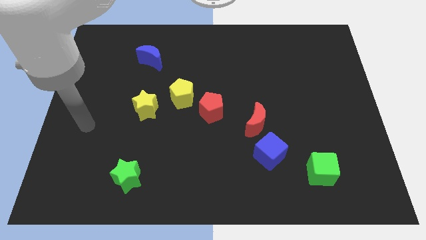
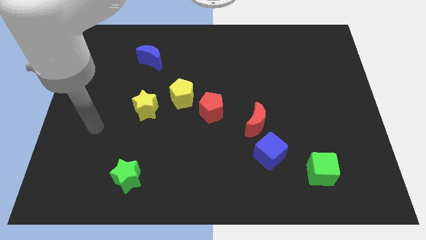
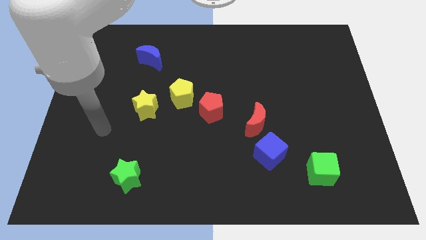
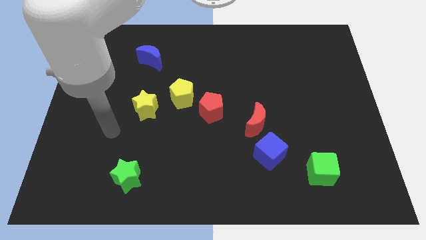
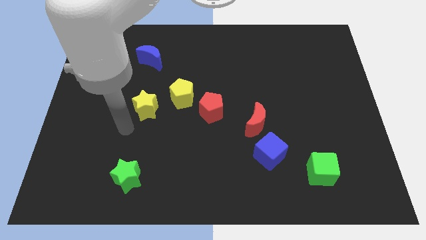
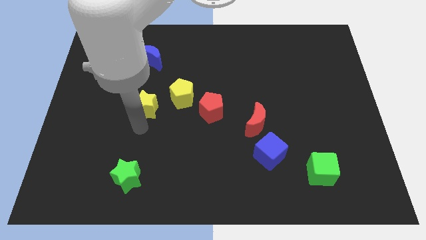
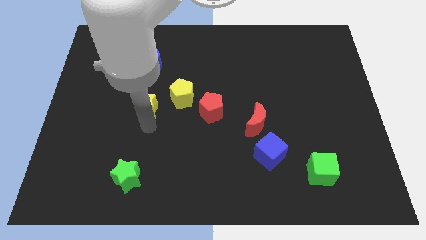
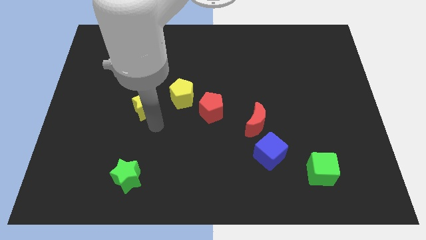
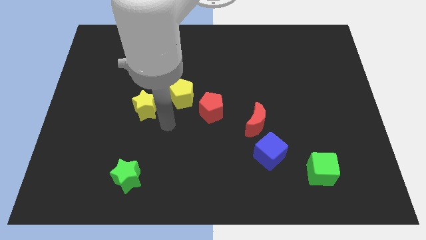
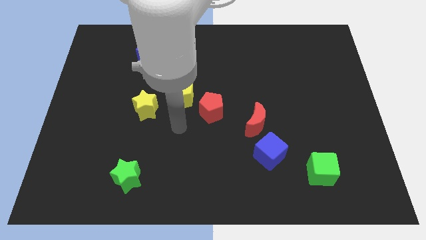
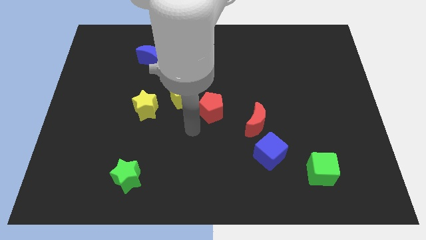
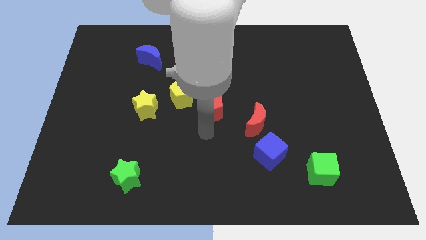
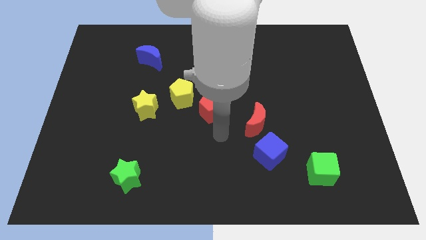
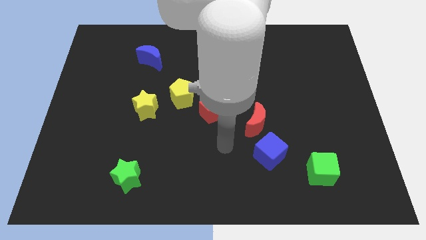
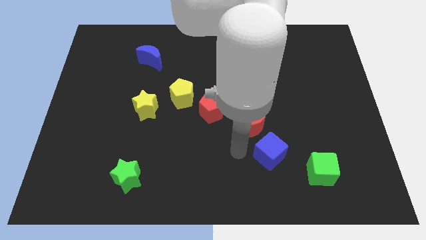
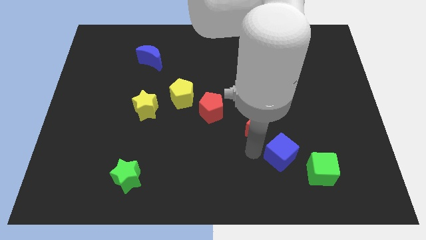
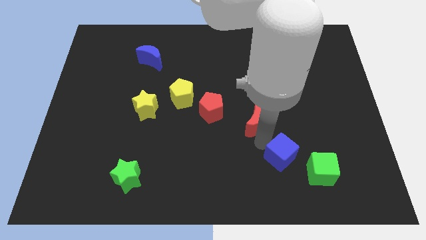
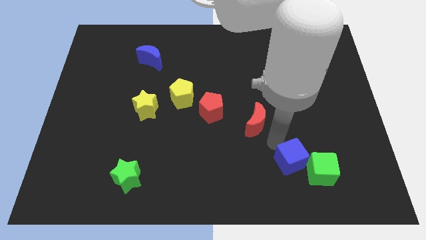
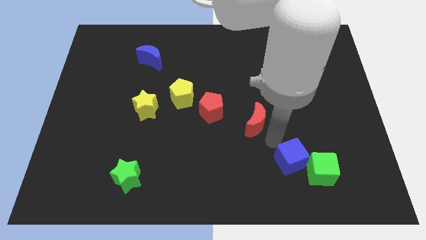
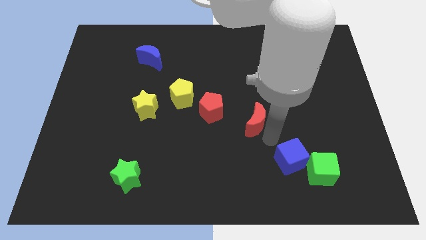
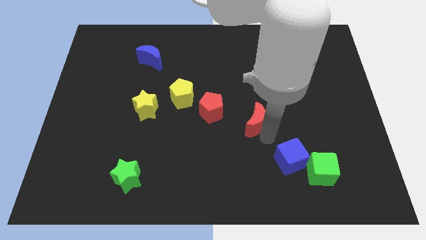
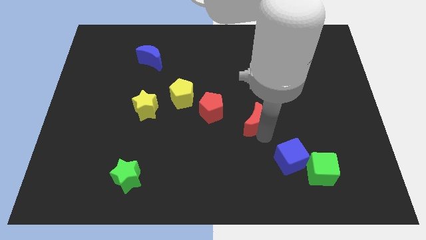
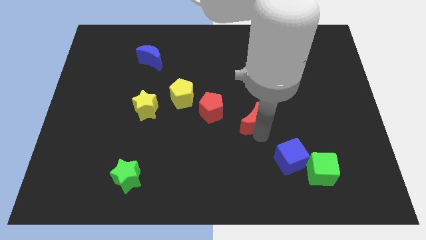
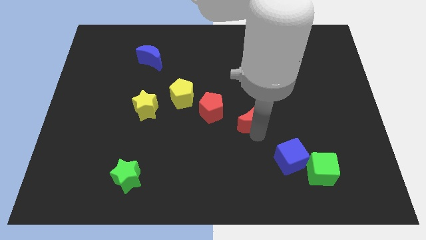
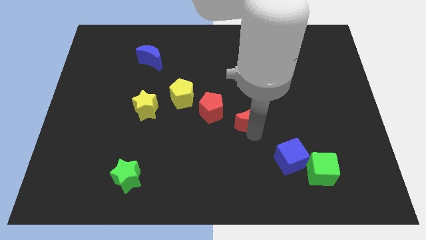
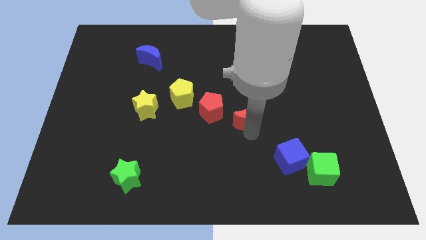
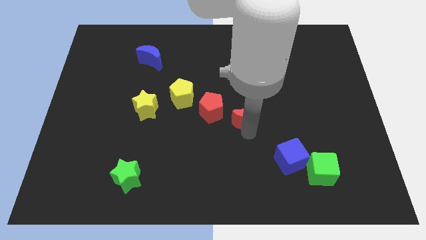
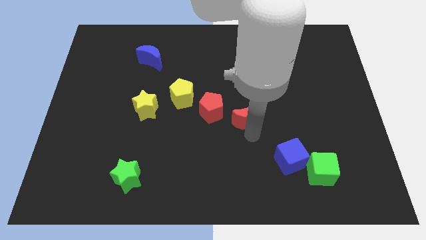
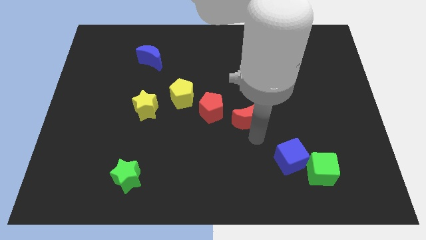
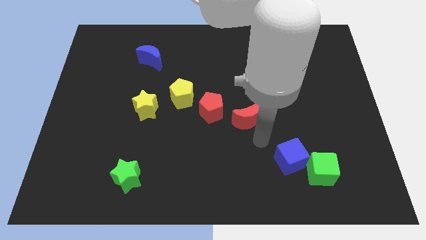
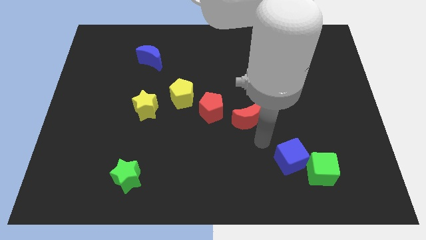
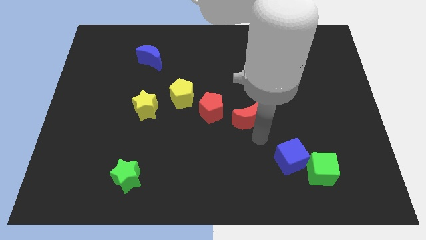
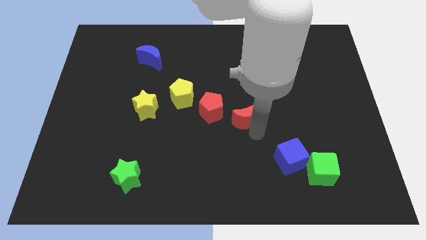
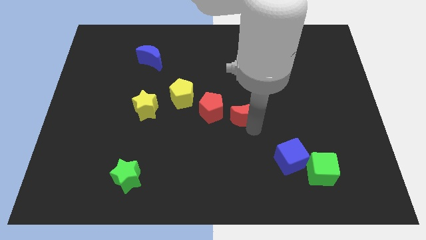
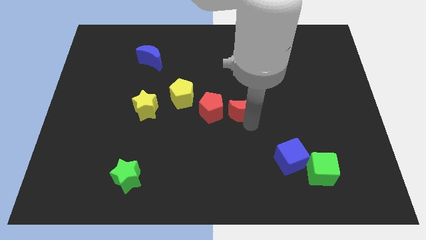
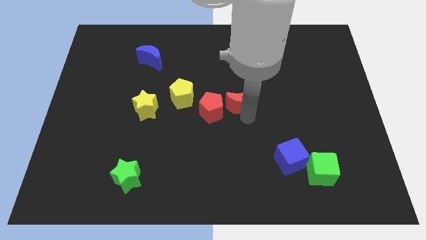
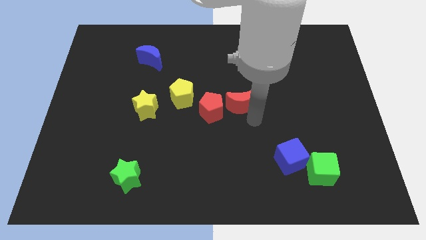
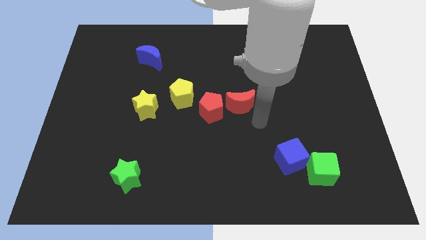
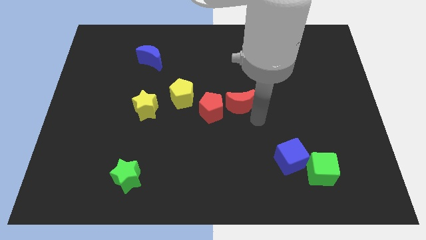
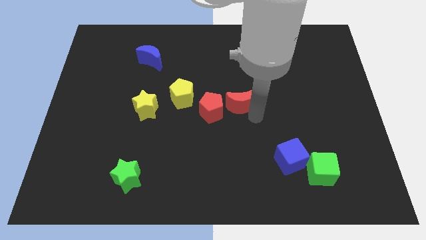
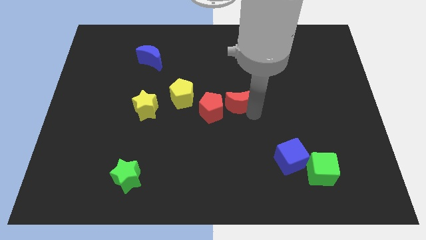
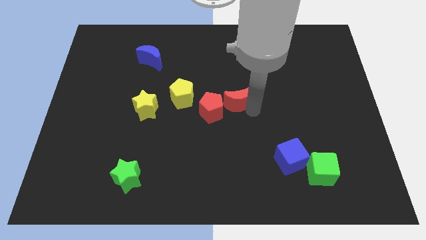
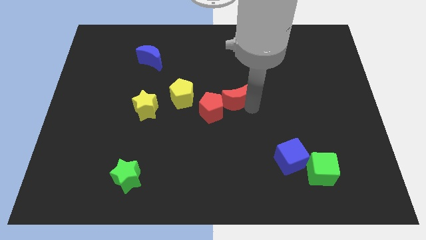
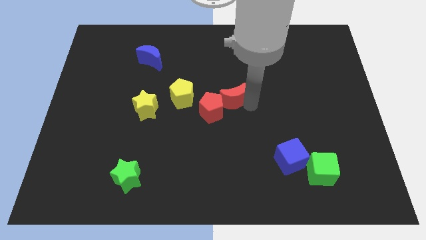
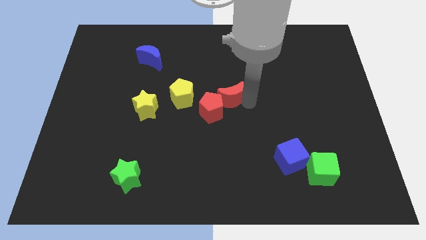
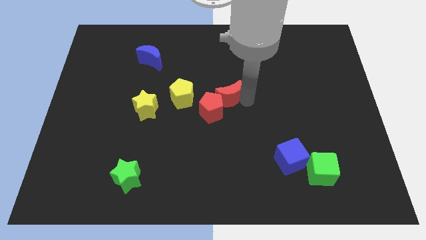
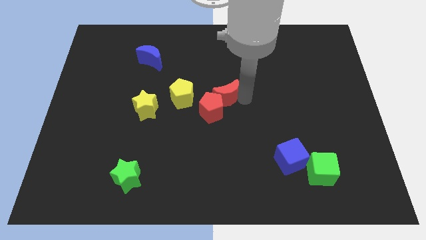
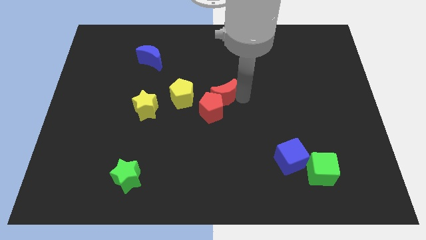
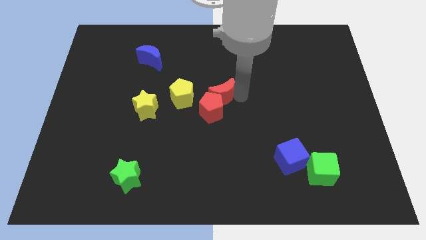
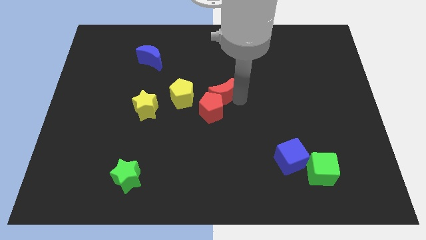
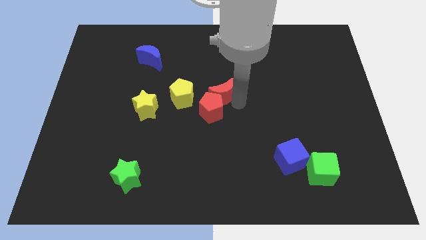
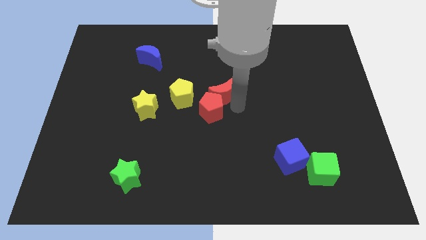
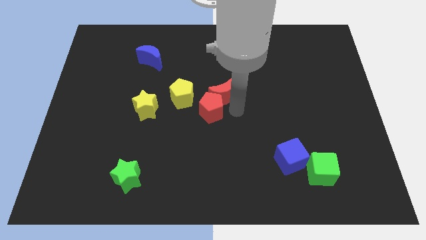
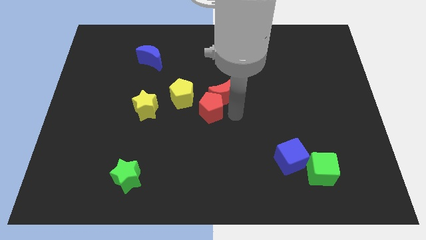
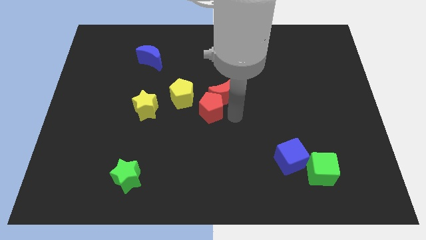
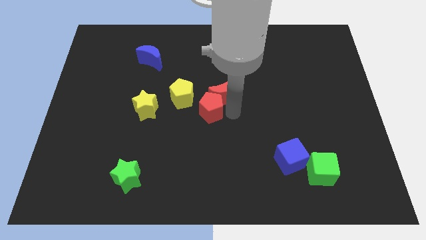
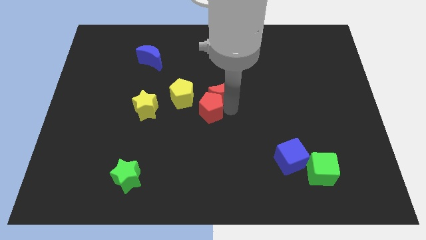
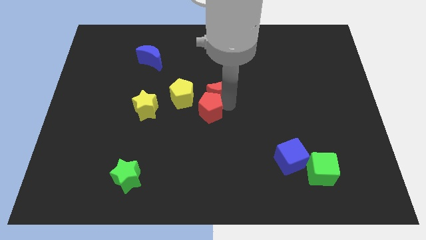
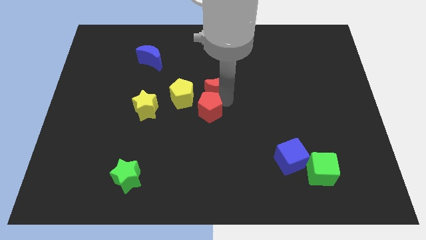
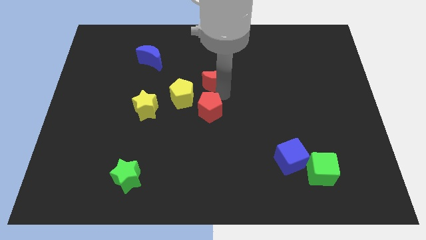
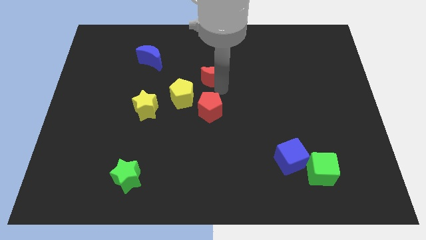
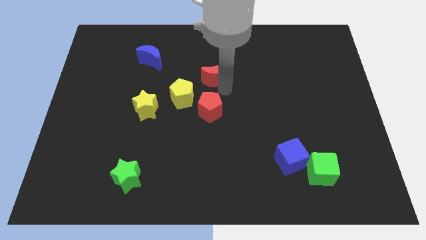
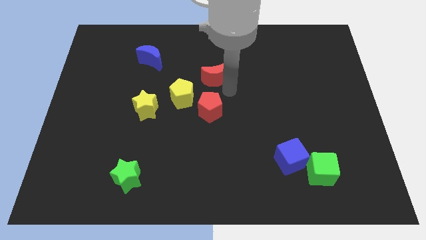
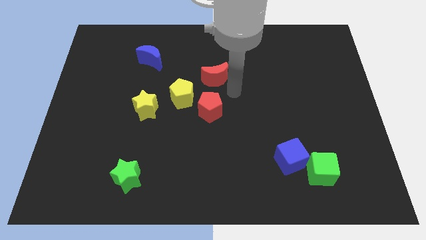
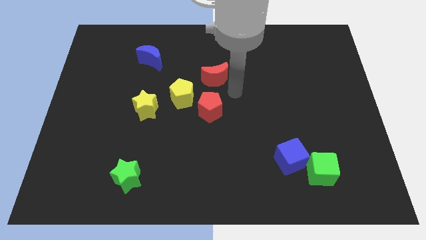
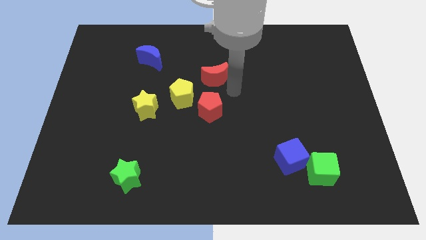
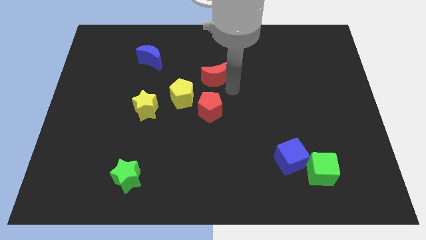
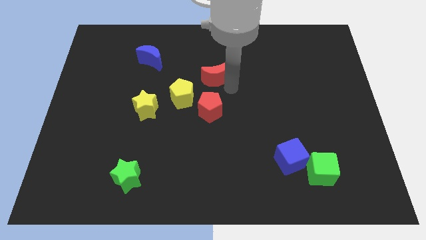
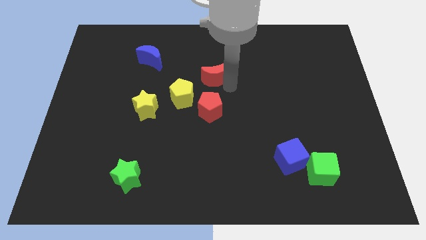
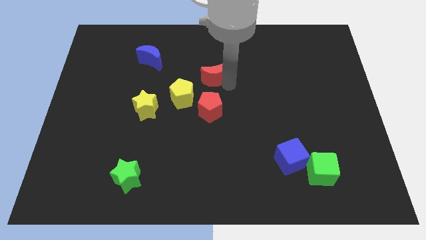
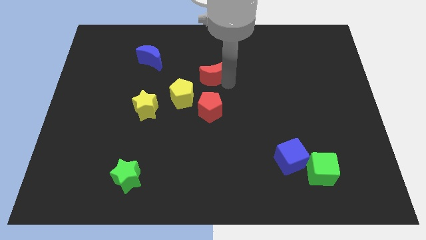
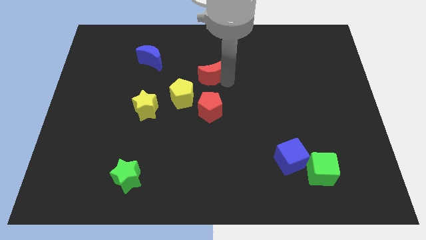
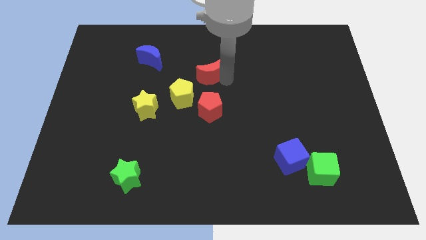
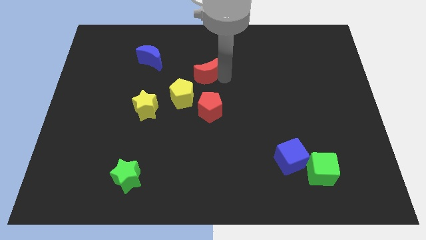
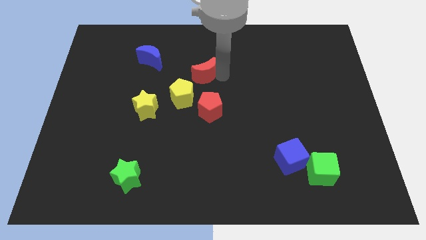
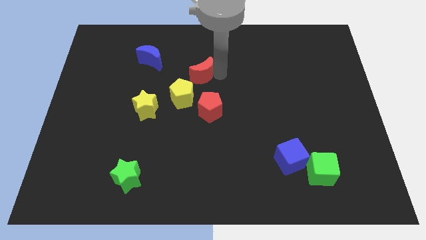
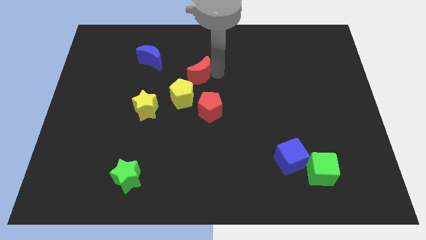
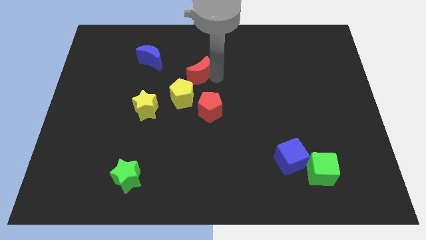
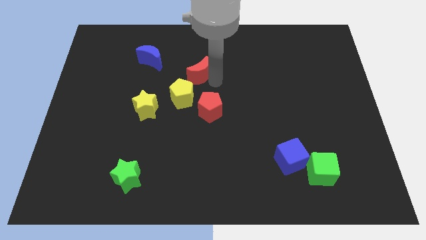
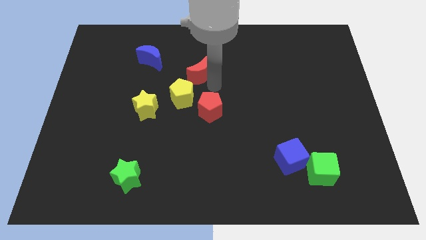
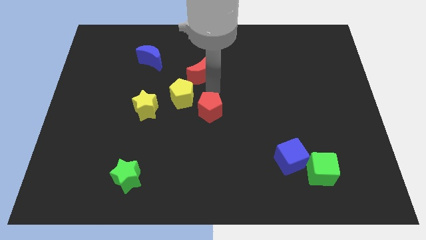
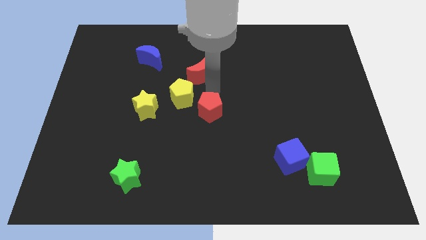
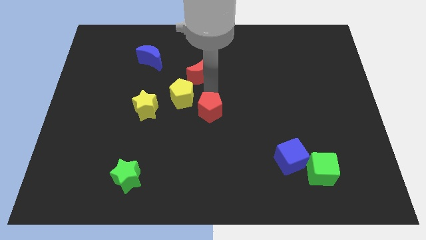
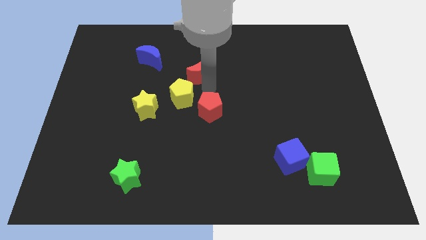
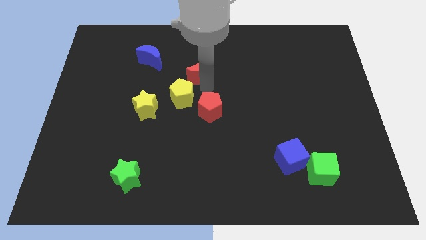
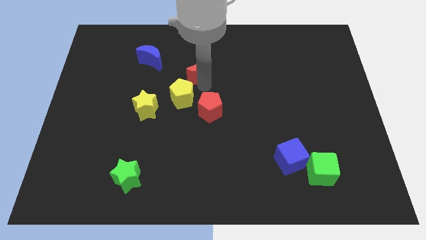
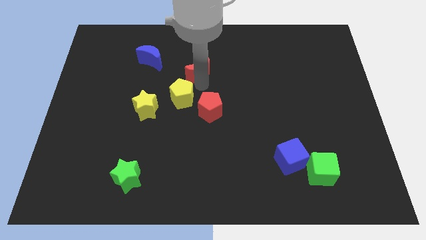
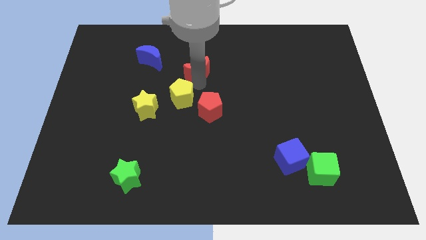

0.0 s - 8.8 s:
put the red moon to the right of the blue moon
